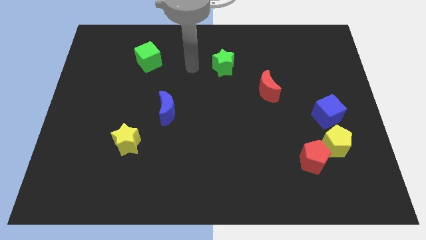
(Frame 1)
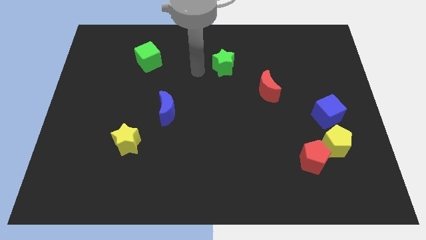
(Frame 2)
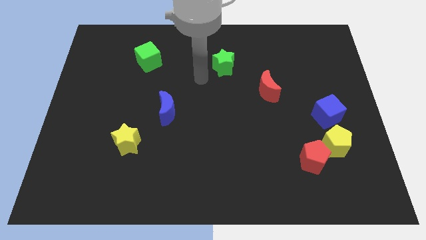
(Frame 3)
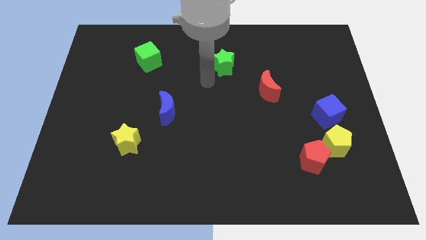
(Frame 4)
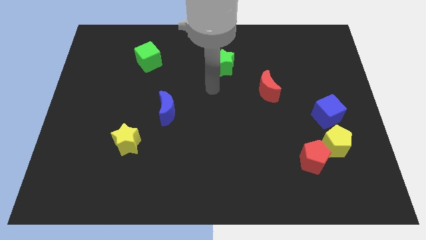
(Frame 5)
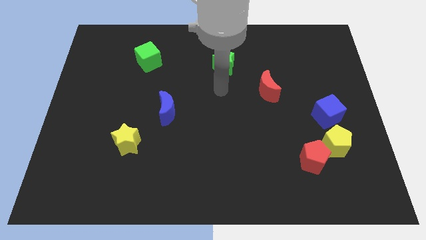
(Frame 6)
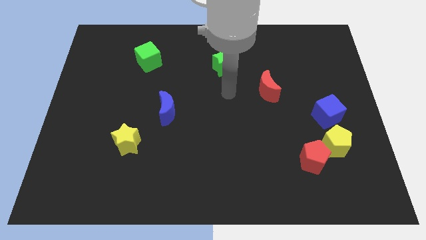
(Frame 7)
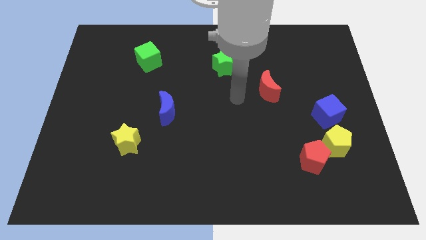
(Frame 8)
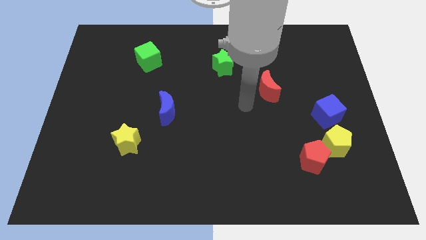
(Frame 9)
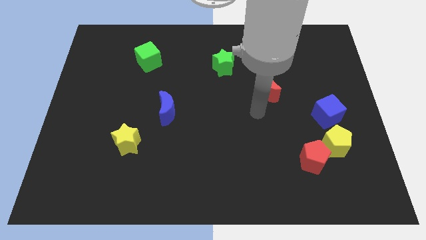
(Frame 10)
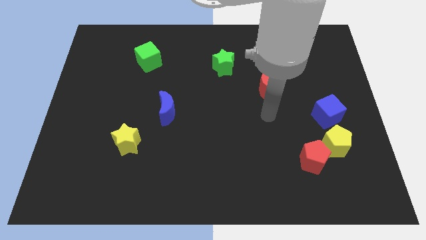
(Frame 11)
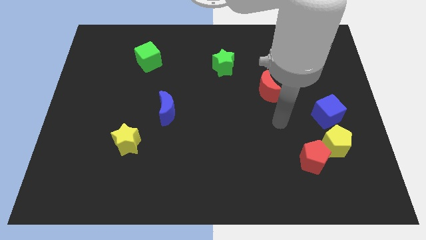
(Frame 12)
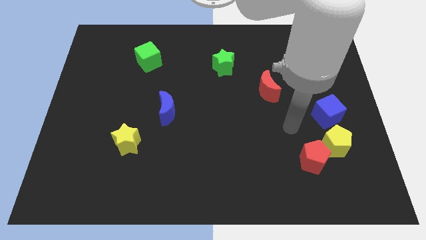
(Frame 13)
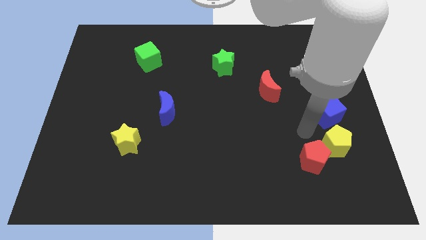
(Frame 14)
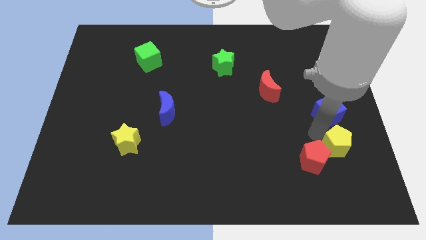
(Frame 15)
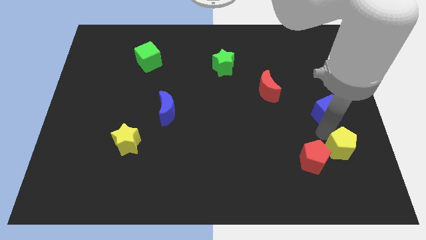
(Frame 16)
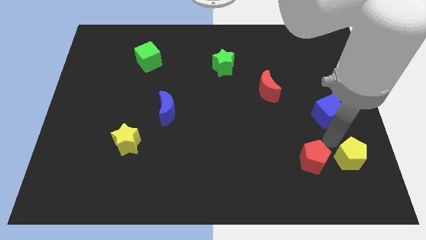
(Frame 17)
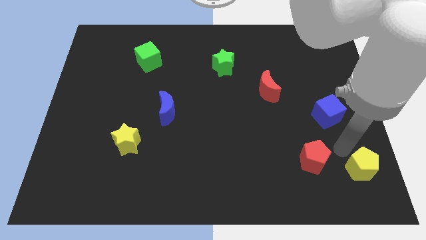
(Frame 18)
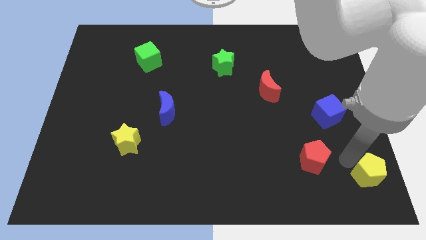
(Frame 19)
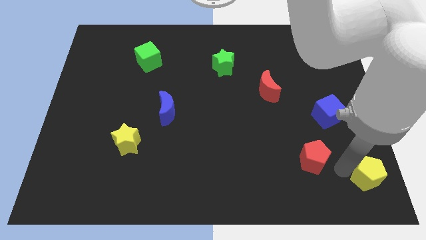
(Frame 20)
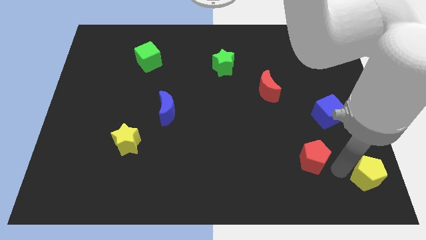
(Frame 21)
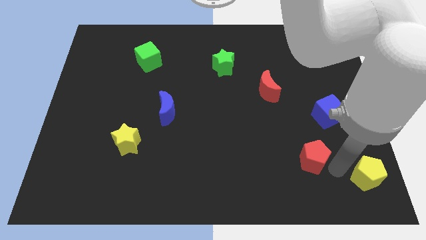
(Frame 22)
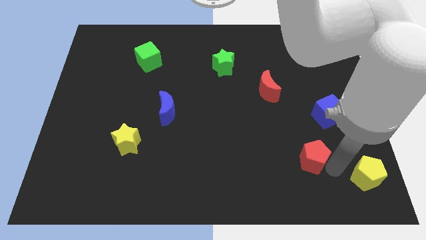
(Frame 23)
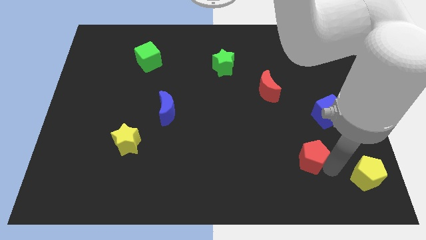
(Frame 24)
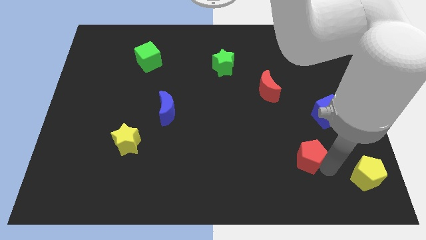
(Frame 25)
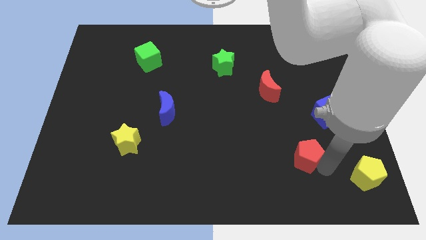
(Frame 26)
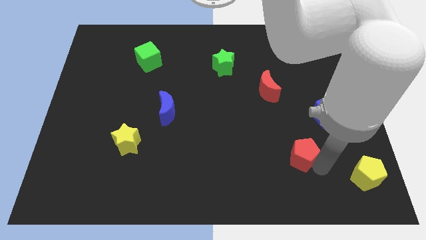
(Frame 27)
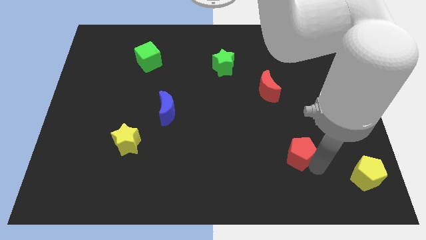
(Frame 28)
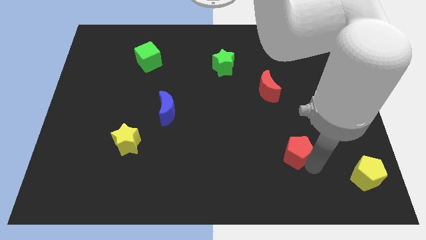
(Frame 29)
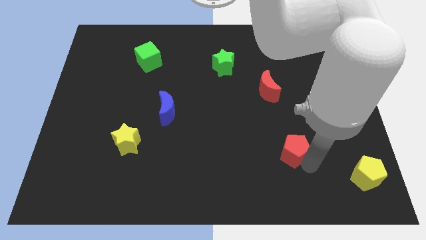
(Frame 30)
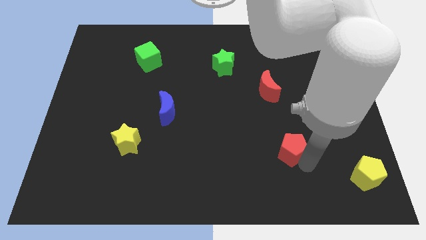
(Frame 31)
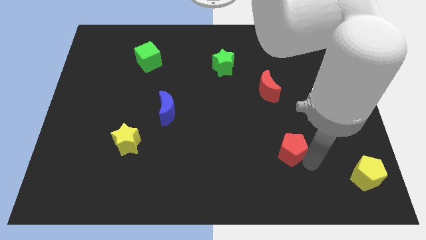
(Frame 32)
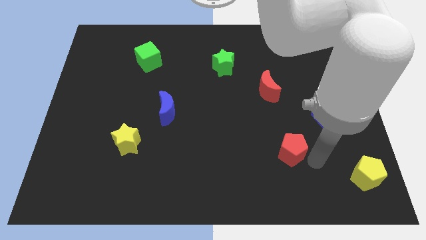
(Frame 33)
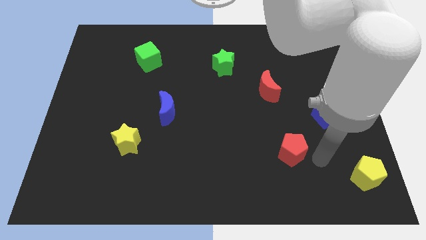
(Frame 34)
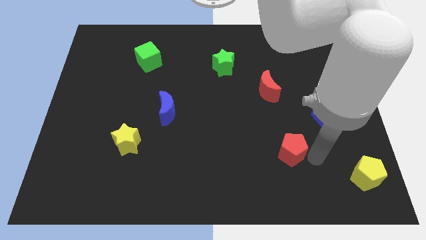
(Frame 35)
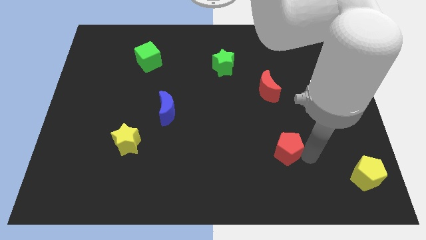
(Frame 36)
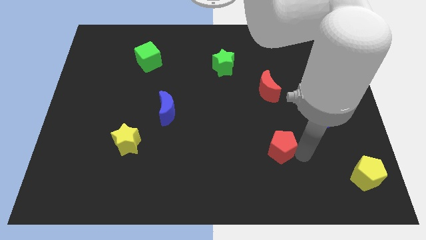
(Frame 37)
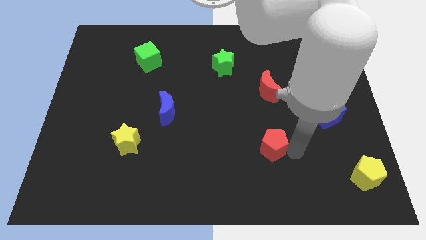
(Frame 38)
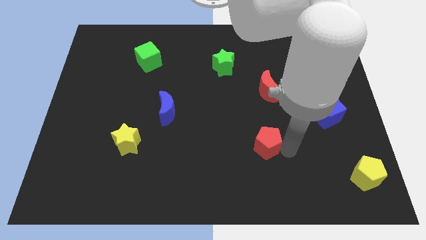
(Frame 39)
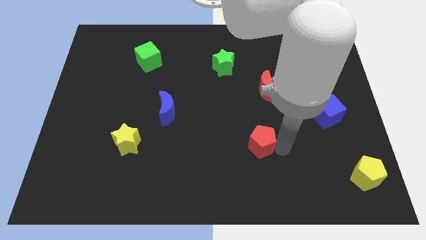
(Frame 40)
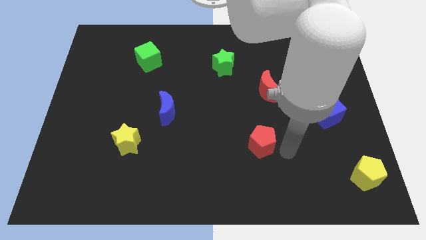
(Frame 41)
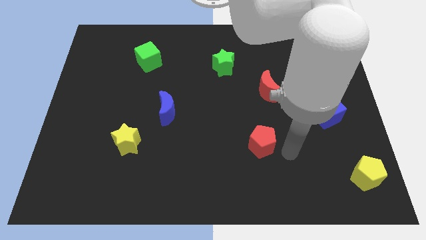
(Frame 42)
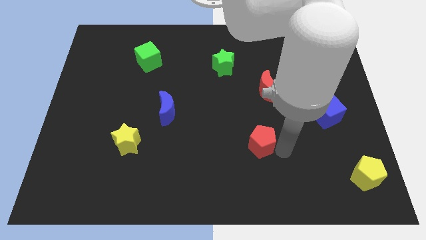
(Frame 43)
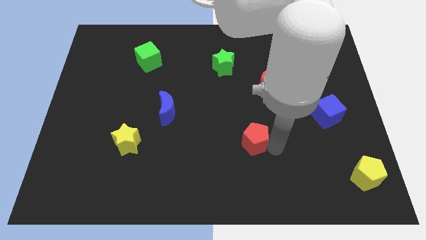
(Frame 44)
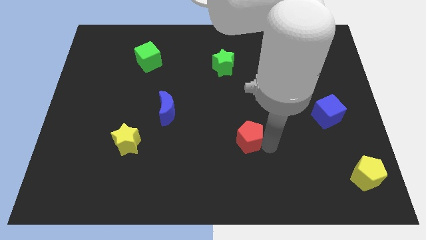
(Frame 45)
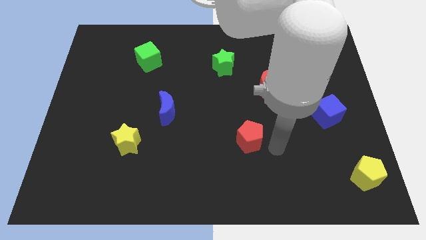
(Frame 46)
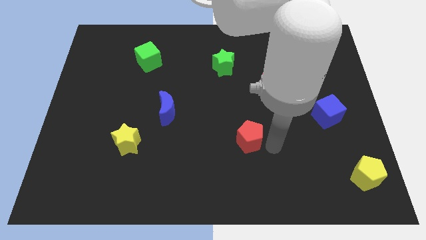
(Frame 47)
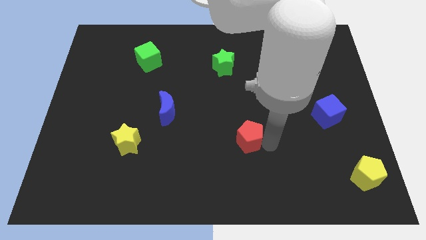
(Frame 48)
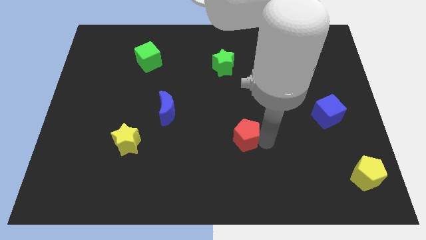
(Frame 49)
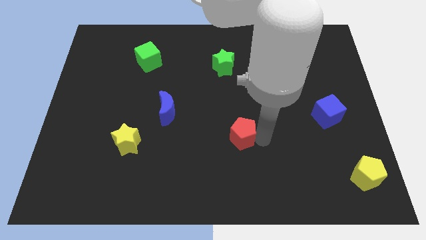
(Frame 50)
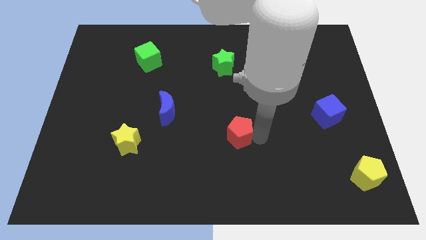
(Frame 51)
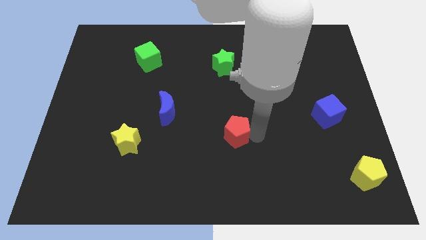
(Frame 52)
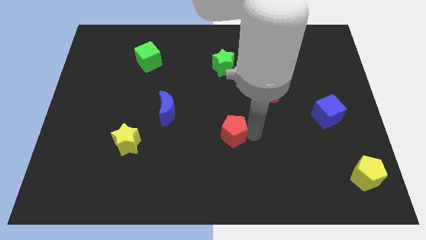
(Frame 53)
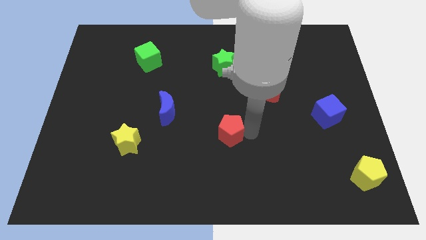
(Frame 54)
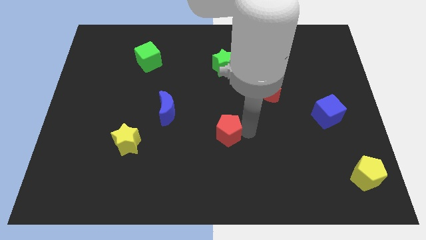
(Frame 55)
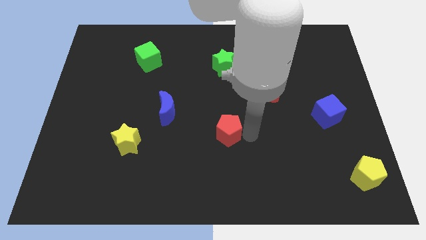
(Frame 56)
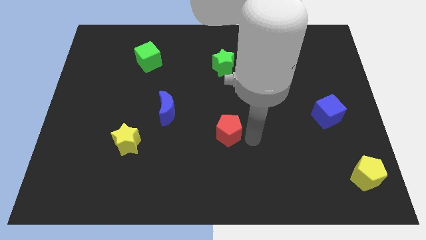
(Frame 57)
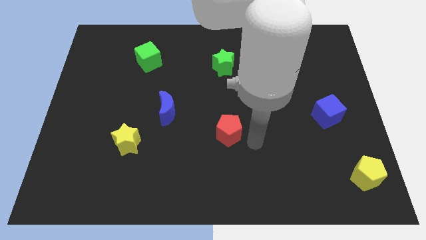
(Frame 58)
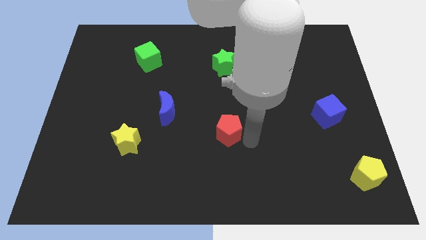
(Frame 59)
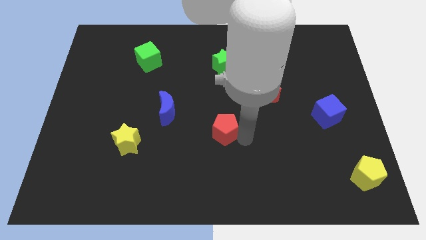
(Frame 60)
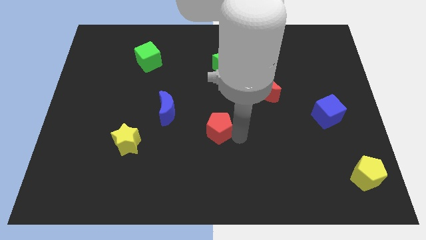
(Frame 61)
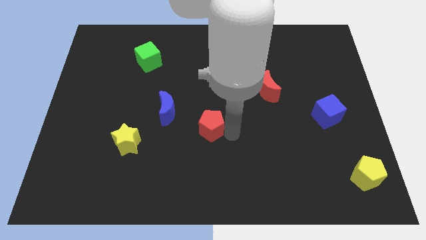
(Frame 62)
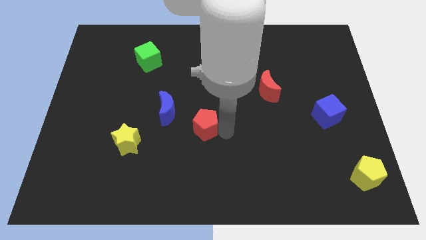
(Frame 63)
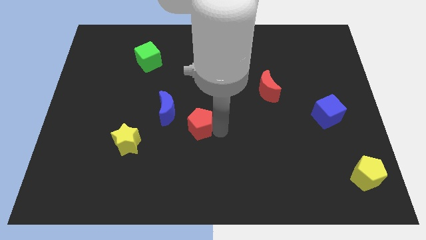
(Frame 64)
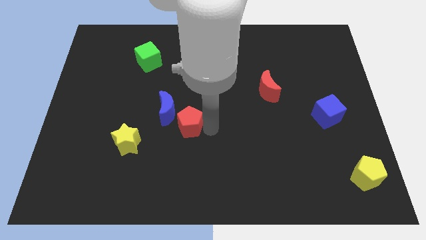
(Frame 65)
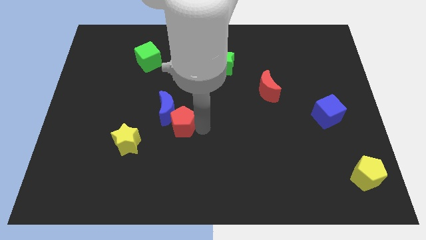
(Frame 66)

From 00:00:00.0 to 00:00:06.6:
move the red pentagon close to the blue moon

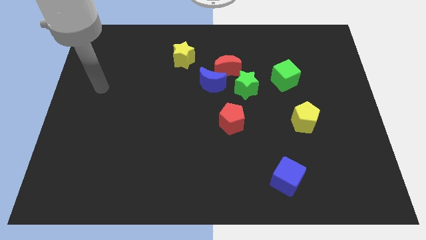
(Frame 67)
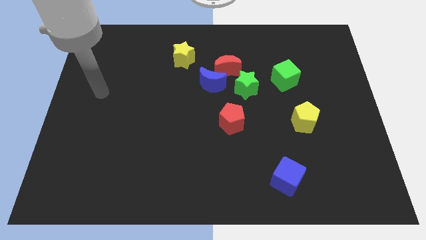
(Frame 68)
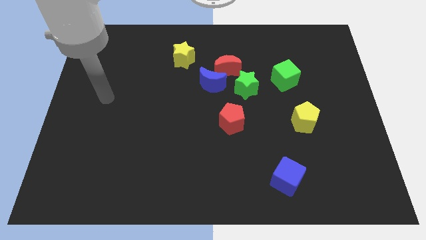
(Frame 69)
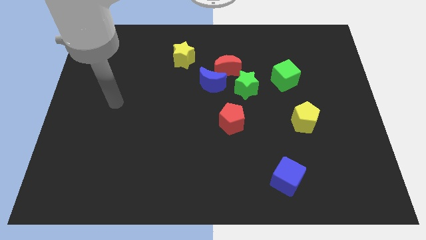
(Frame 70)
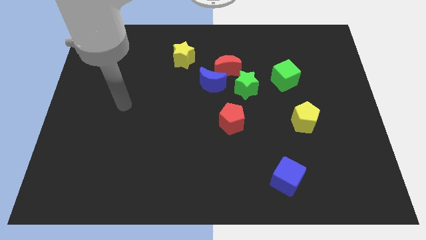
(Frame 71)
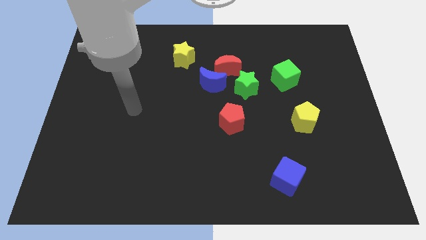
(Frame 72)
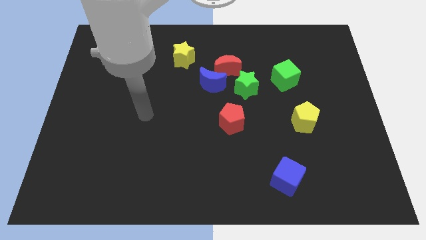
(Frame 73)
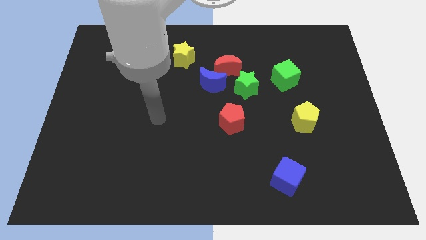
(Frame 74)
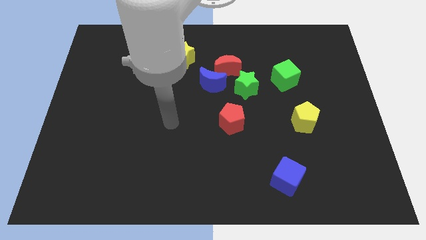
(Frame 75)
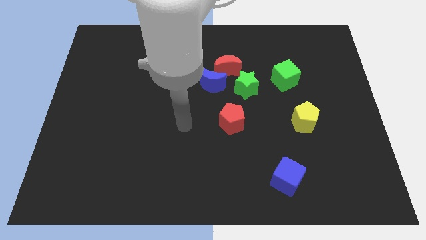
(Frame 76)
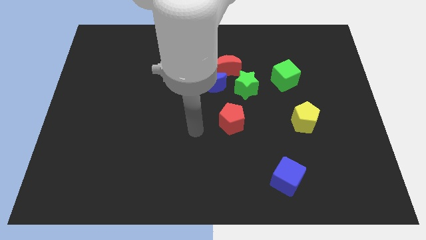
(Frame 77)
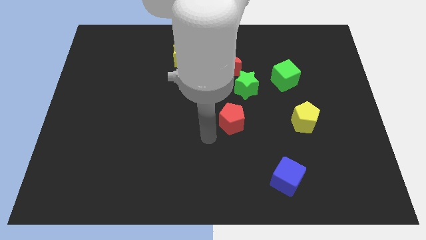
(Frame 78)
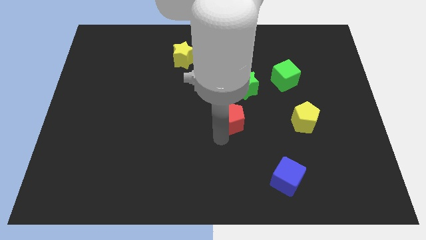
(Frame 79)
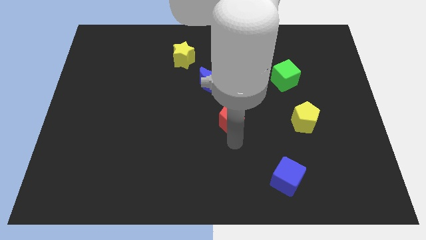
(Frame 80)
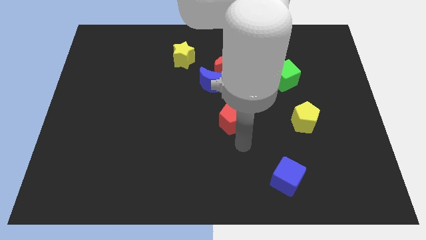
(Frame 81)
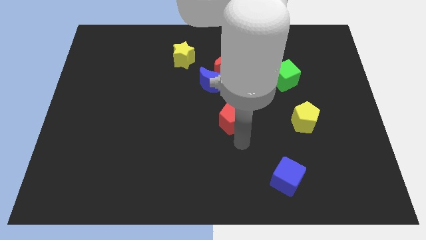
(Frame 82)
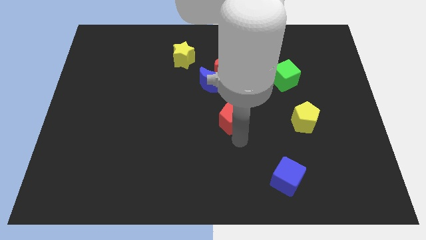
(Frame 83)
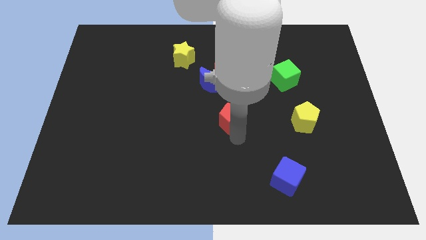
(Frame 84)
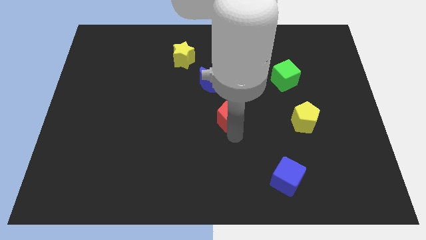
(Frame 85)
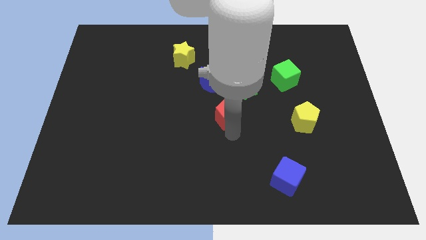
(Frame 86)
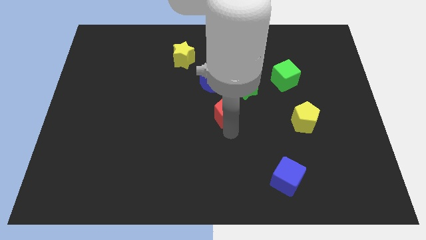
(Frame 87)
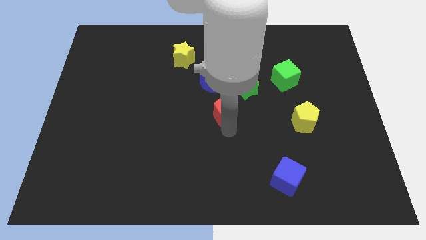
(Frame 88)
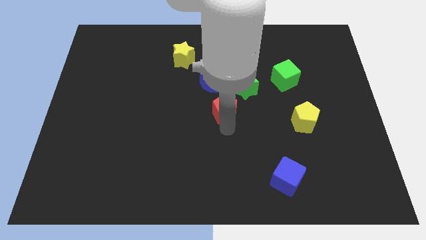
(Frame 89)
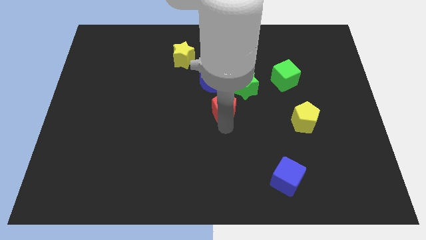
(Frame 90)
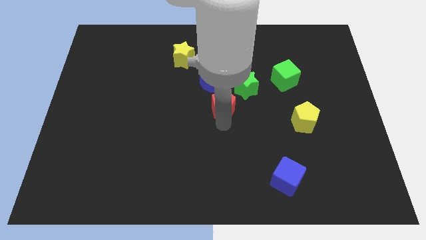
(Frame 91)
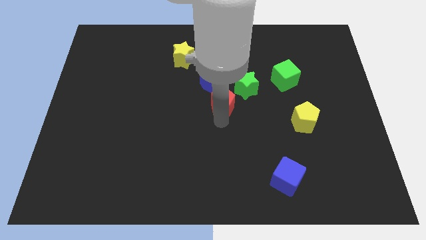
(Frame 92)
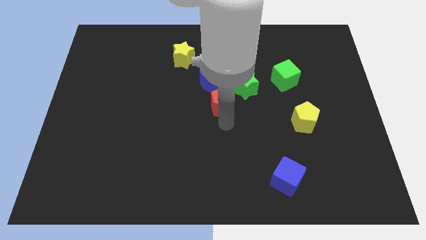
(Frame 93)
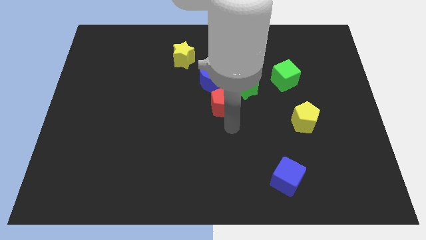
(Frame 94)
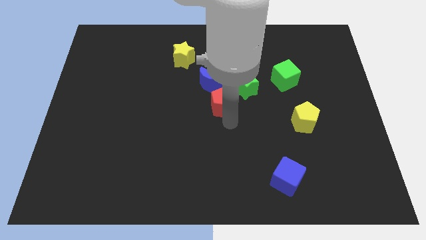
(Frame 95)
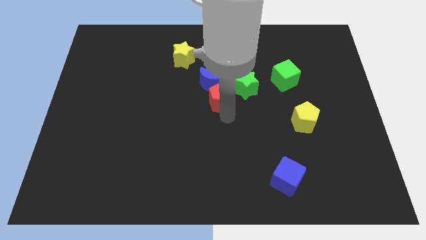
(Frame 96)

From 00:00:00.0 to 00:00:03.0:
move the red pentagon to the blue moon
